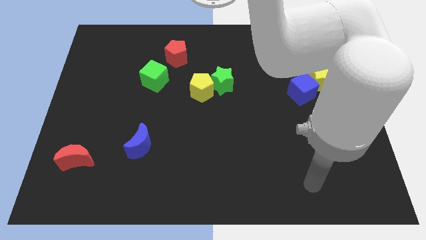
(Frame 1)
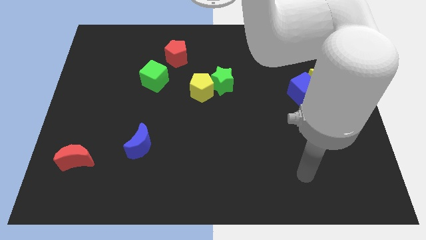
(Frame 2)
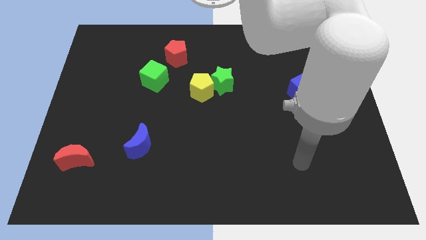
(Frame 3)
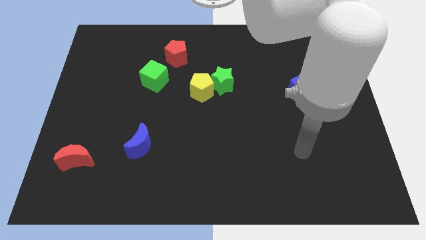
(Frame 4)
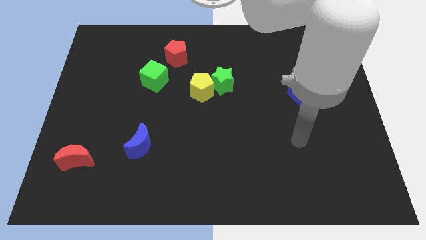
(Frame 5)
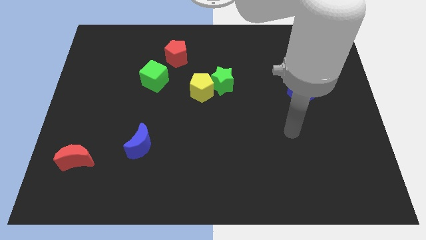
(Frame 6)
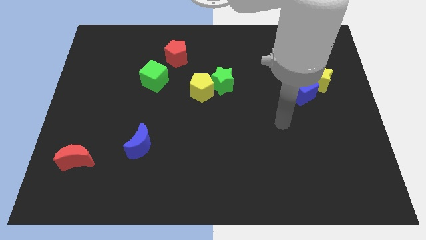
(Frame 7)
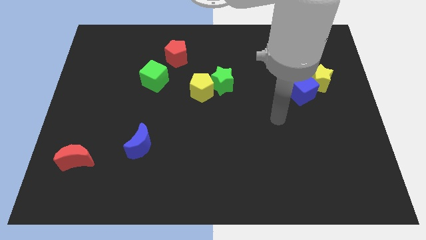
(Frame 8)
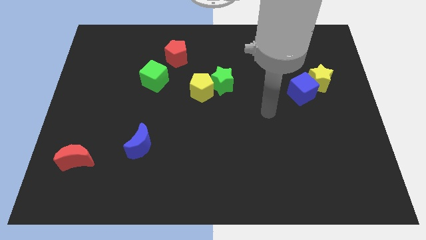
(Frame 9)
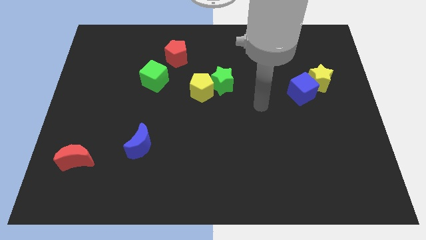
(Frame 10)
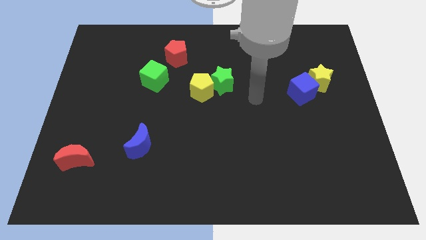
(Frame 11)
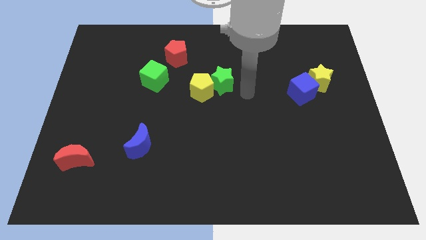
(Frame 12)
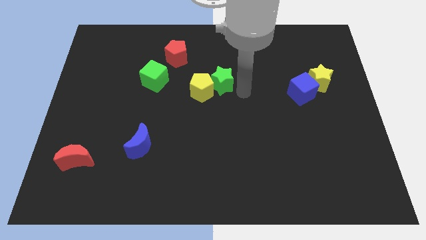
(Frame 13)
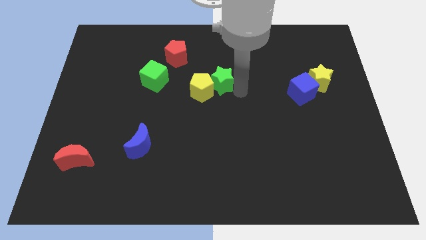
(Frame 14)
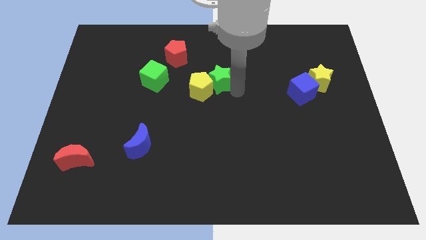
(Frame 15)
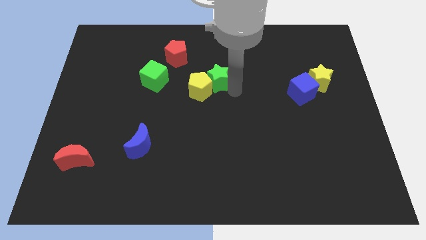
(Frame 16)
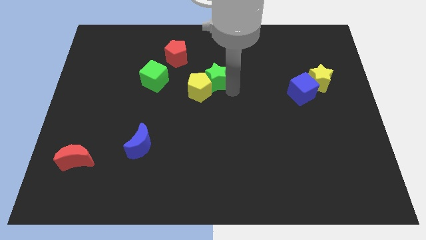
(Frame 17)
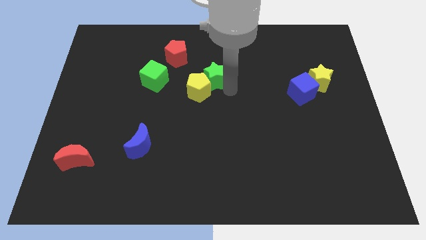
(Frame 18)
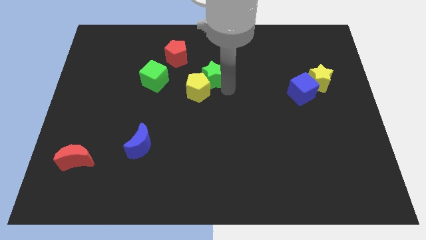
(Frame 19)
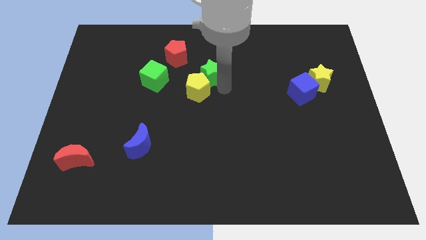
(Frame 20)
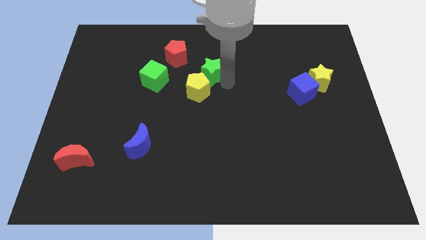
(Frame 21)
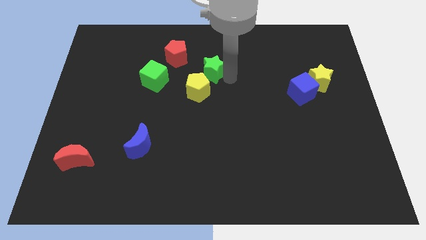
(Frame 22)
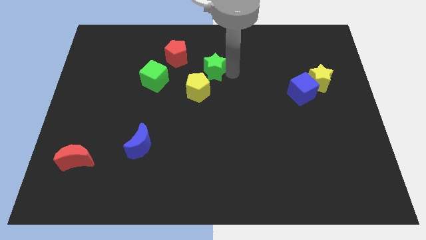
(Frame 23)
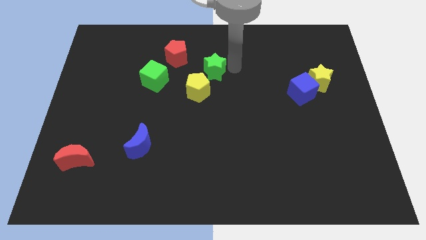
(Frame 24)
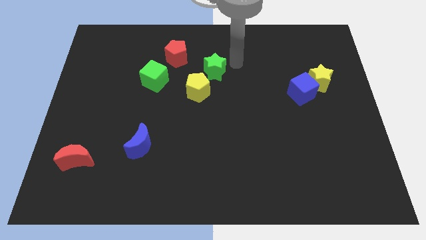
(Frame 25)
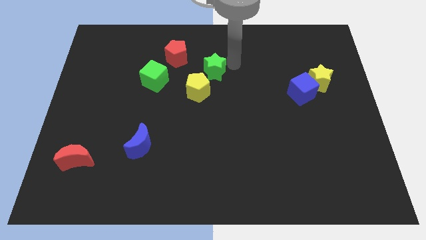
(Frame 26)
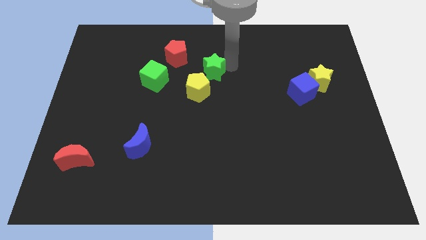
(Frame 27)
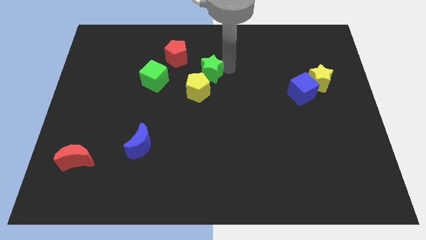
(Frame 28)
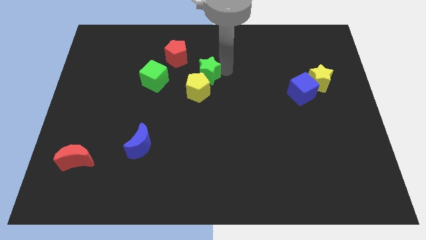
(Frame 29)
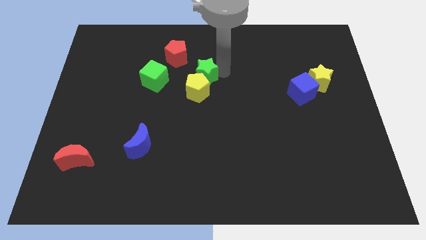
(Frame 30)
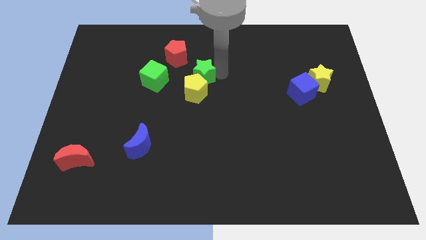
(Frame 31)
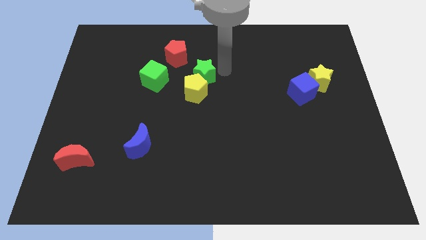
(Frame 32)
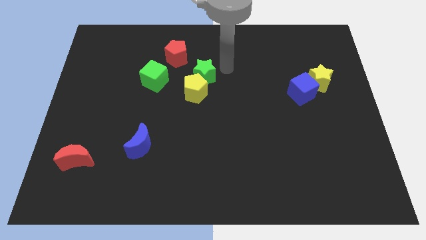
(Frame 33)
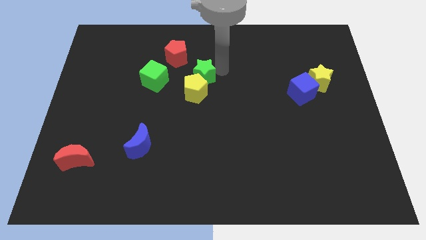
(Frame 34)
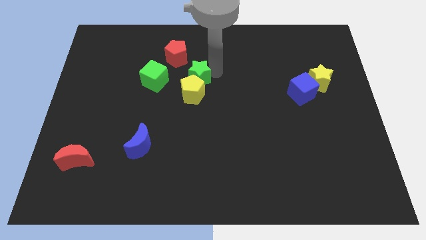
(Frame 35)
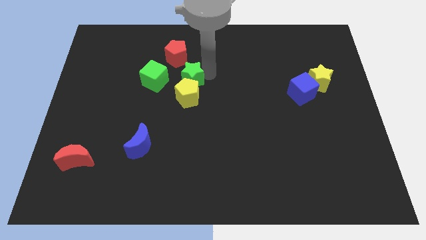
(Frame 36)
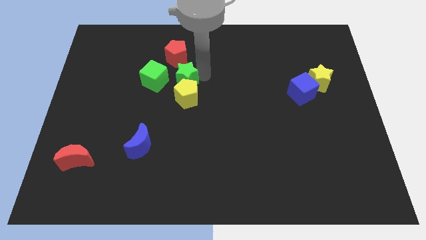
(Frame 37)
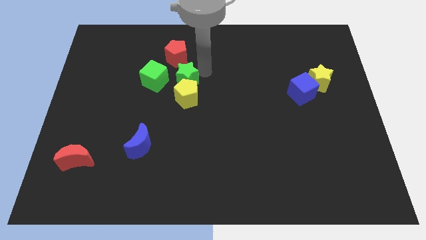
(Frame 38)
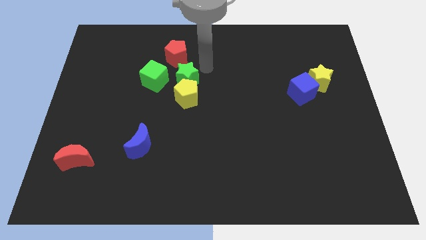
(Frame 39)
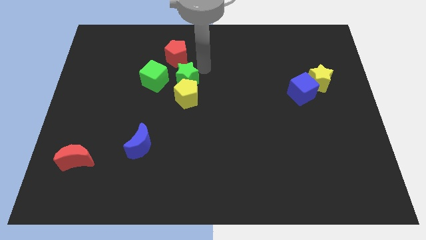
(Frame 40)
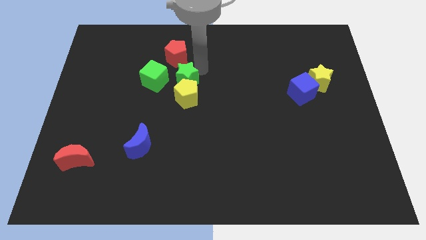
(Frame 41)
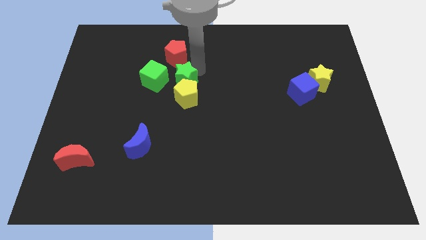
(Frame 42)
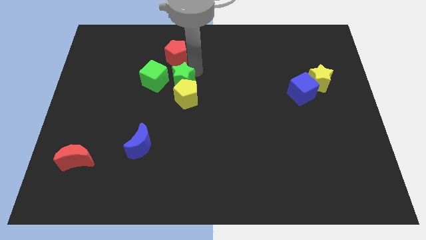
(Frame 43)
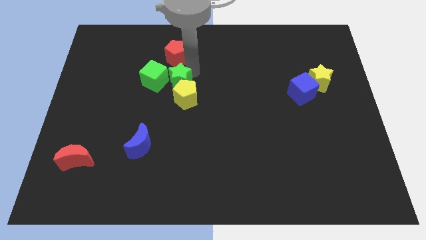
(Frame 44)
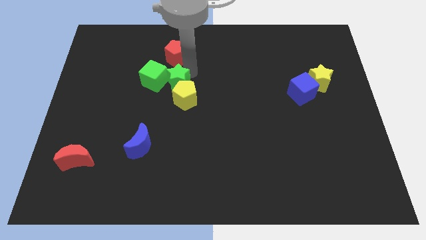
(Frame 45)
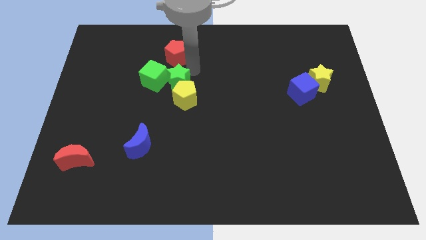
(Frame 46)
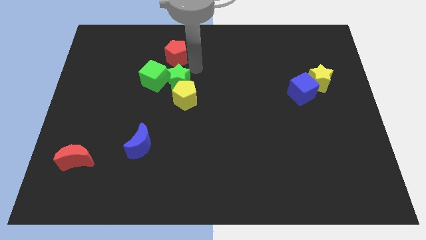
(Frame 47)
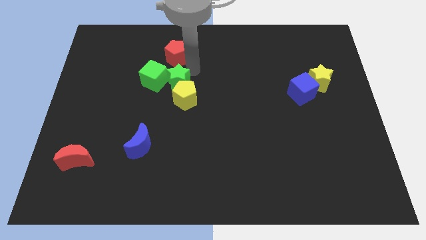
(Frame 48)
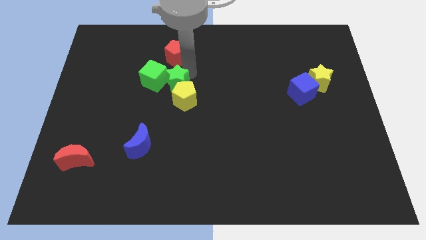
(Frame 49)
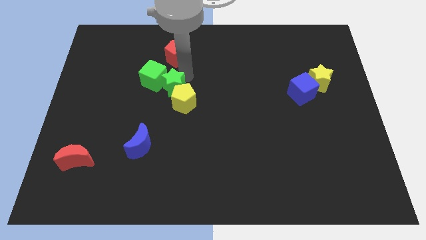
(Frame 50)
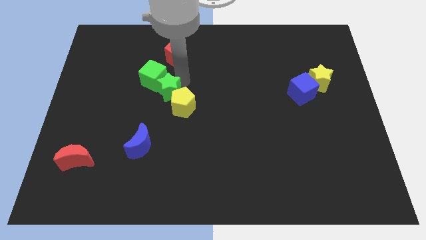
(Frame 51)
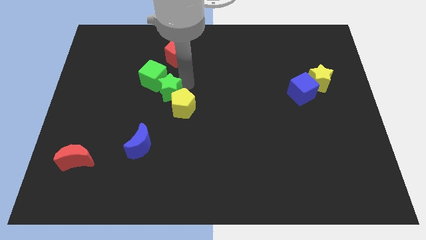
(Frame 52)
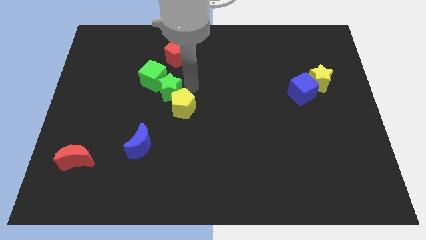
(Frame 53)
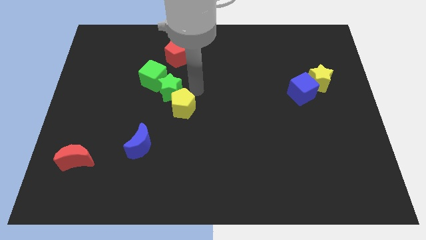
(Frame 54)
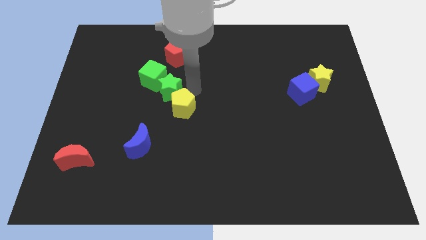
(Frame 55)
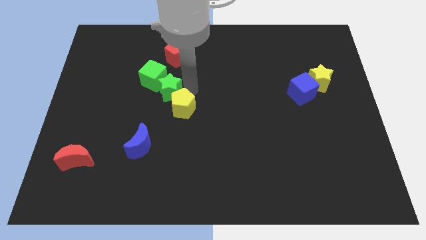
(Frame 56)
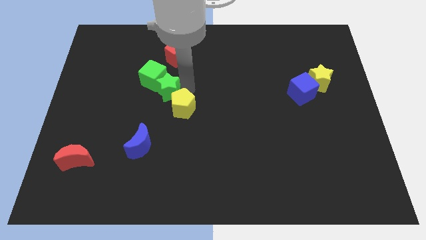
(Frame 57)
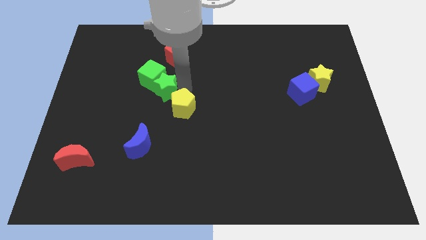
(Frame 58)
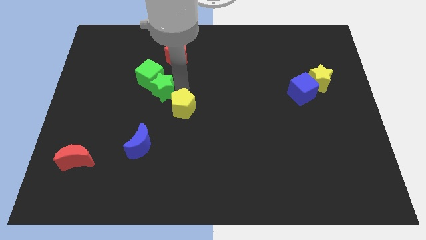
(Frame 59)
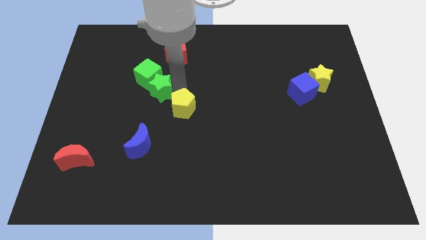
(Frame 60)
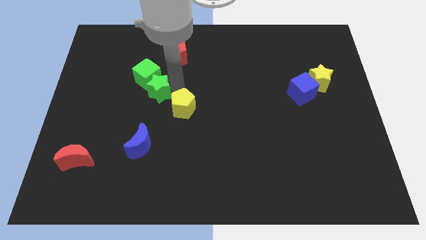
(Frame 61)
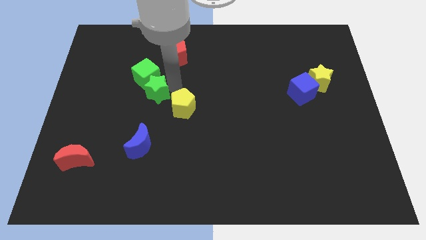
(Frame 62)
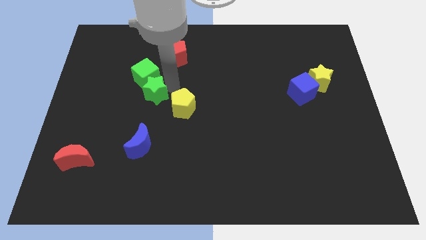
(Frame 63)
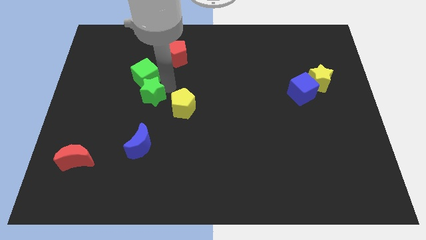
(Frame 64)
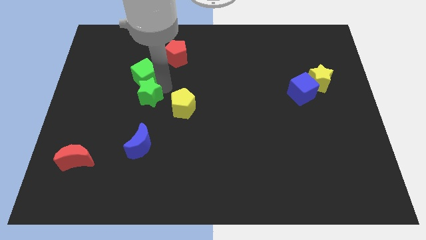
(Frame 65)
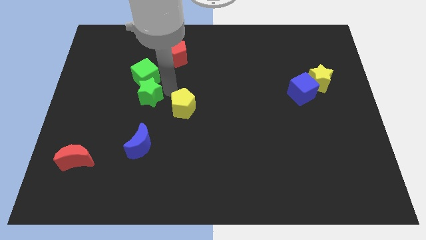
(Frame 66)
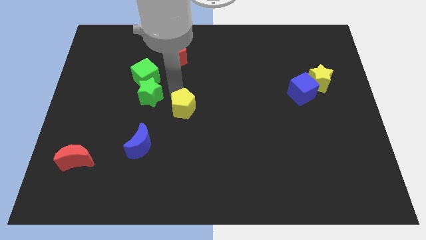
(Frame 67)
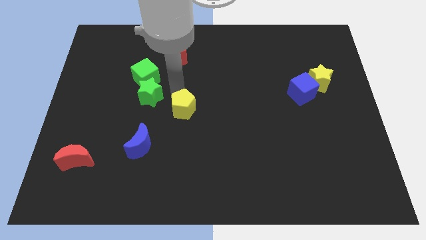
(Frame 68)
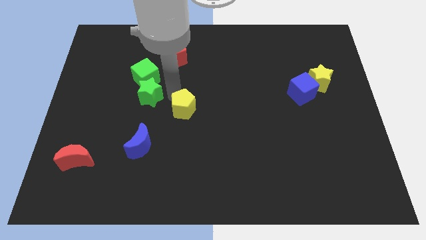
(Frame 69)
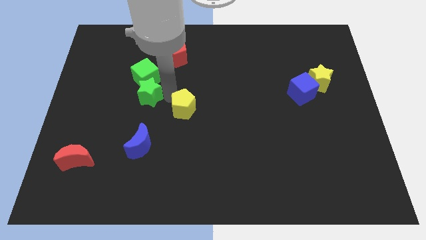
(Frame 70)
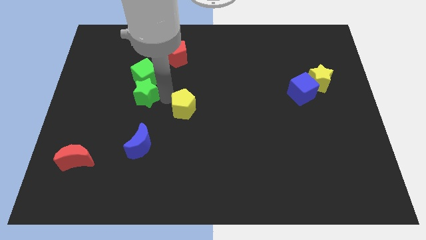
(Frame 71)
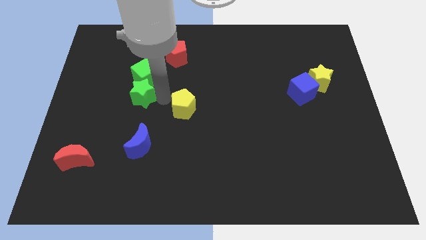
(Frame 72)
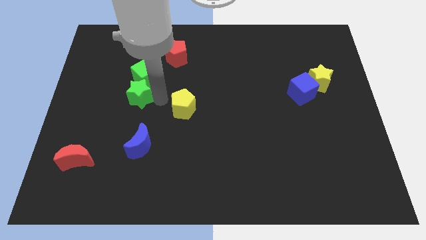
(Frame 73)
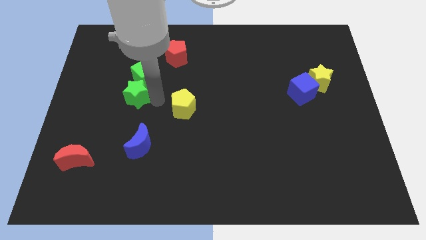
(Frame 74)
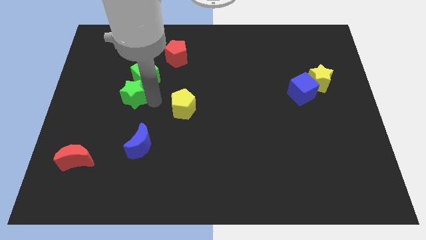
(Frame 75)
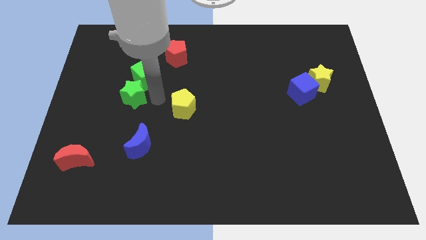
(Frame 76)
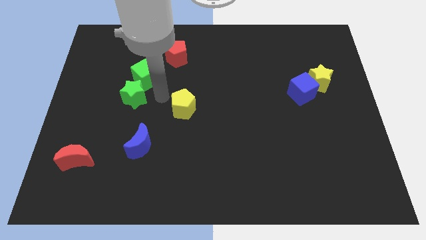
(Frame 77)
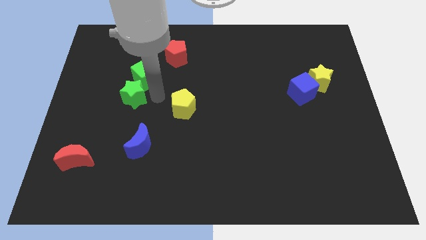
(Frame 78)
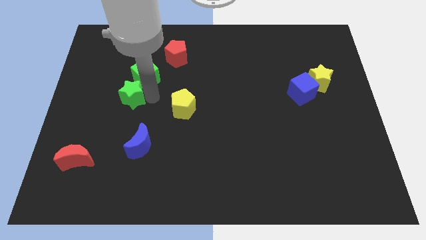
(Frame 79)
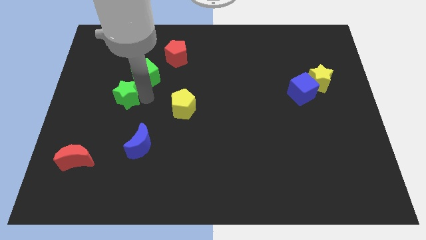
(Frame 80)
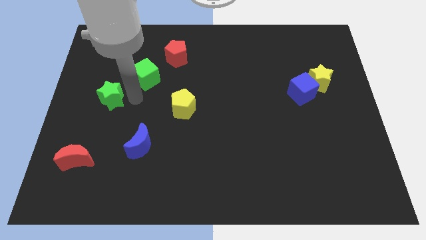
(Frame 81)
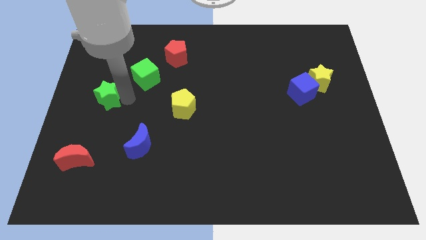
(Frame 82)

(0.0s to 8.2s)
move the green star to the left side of the board
